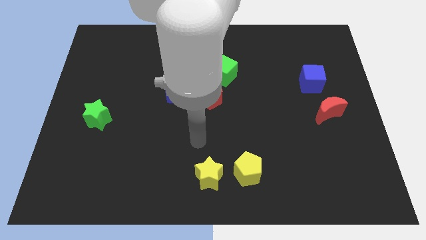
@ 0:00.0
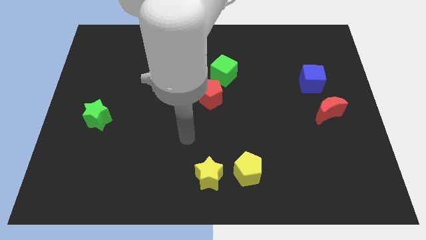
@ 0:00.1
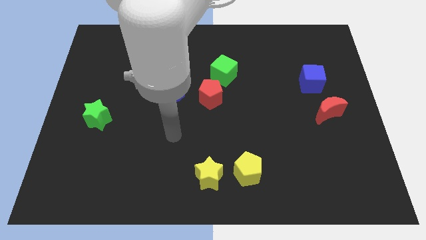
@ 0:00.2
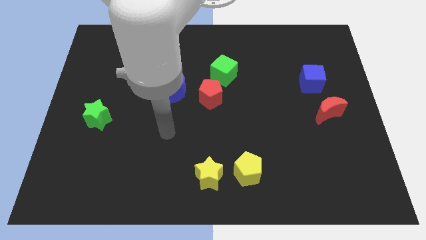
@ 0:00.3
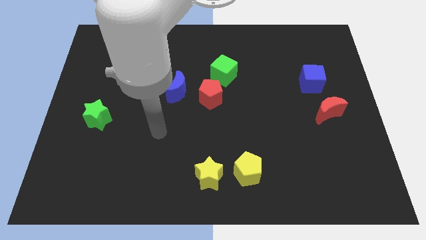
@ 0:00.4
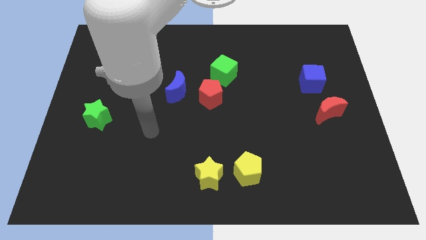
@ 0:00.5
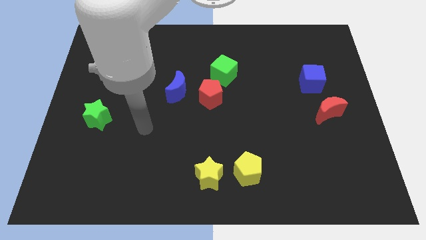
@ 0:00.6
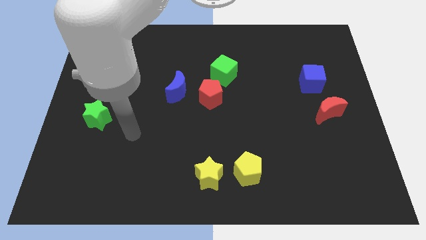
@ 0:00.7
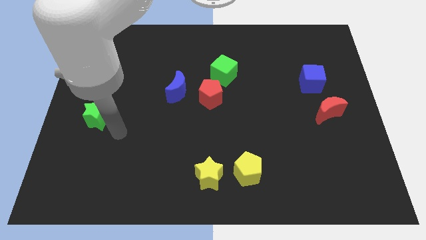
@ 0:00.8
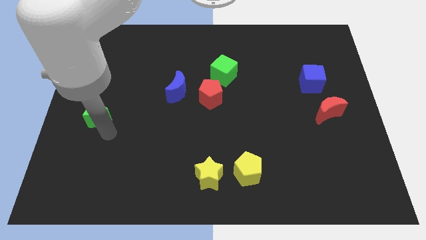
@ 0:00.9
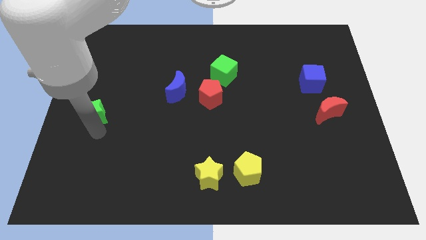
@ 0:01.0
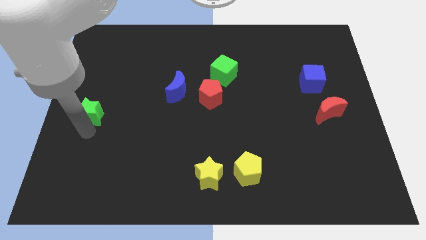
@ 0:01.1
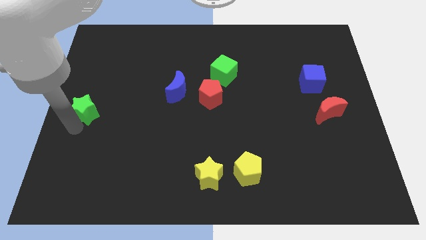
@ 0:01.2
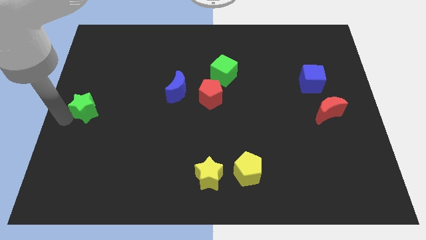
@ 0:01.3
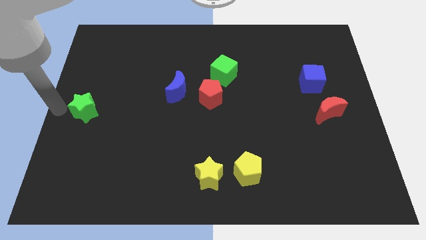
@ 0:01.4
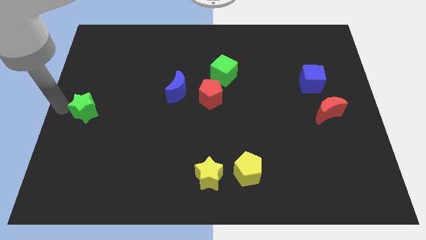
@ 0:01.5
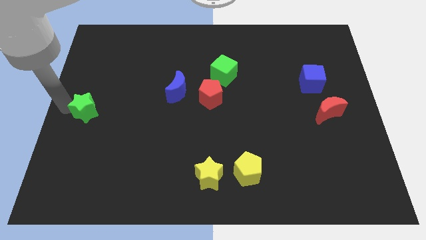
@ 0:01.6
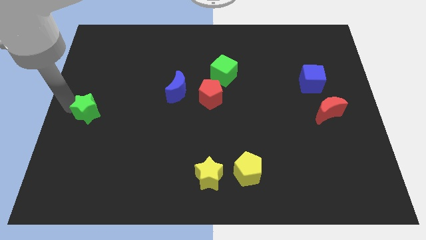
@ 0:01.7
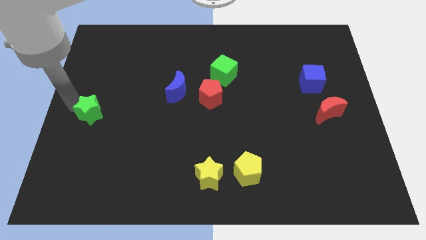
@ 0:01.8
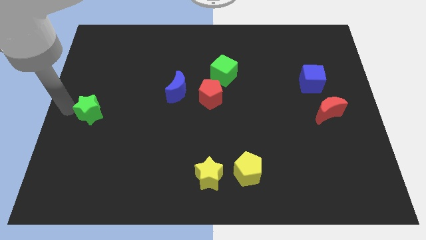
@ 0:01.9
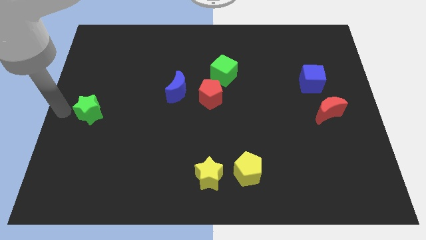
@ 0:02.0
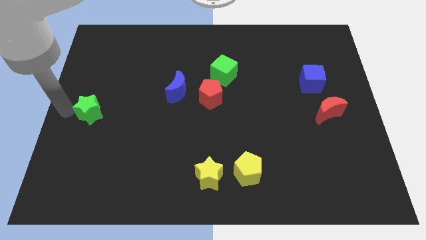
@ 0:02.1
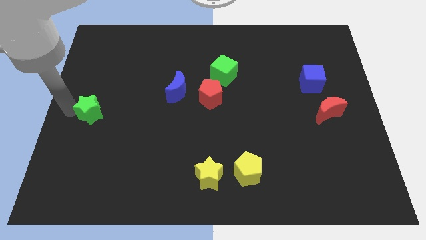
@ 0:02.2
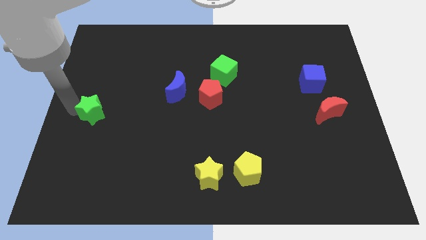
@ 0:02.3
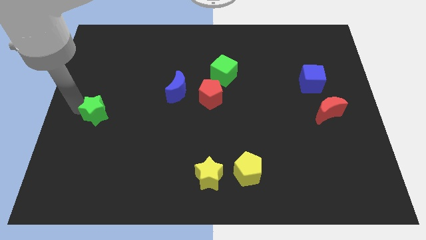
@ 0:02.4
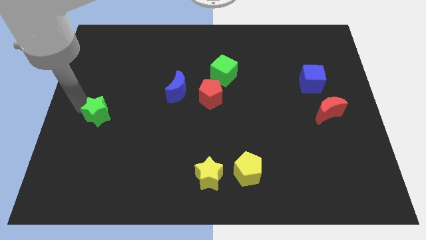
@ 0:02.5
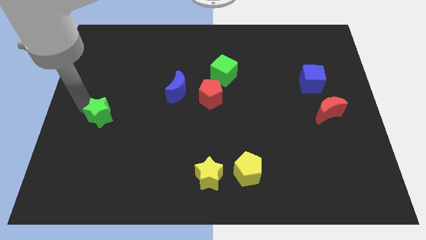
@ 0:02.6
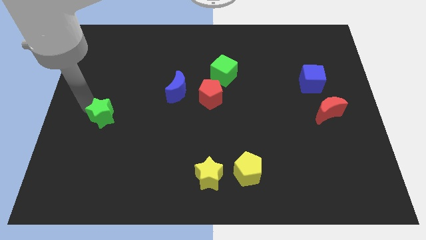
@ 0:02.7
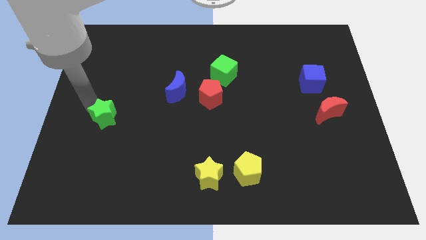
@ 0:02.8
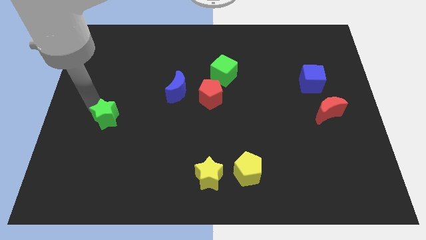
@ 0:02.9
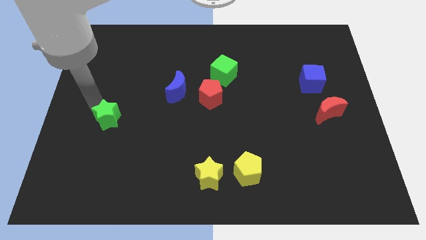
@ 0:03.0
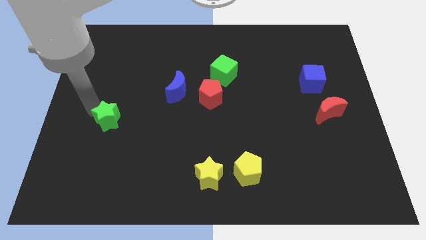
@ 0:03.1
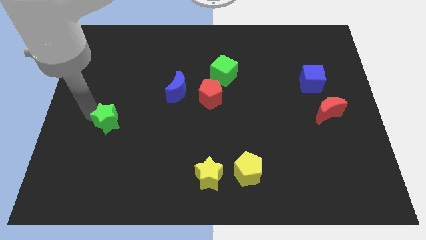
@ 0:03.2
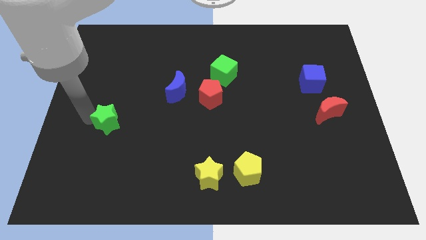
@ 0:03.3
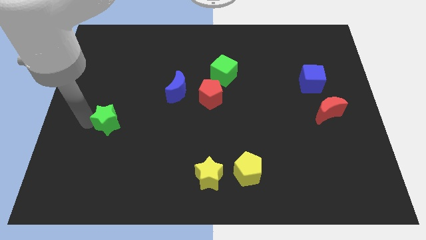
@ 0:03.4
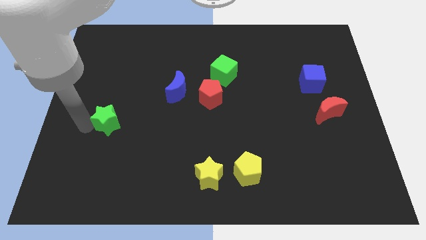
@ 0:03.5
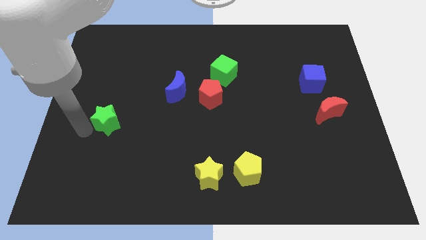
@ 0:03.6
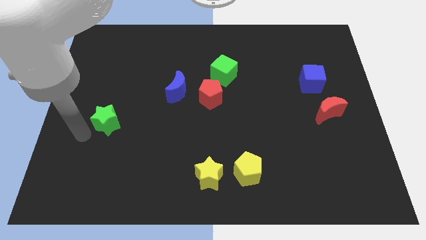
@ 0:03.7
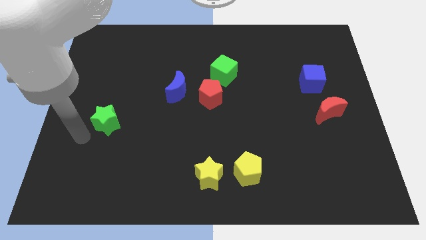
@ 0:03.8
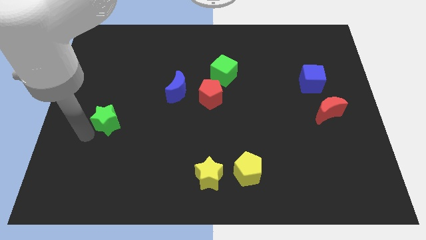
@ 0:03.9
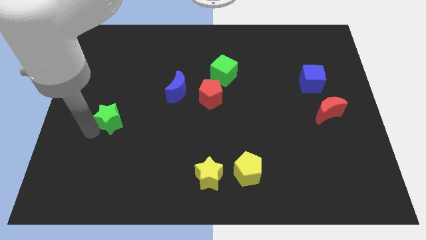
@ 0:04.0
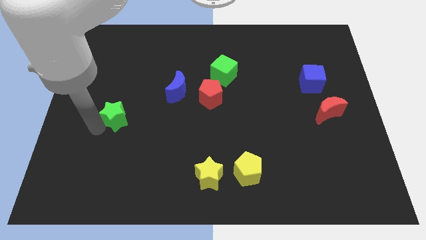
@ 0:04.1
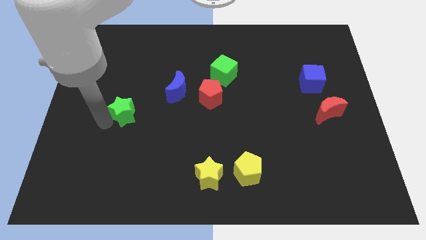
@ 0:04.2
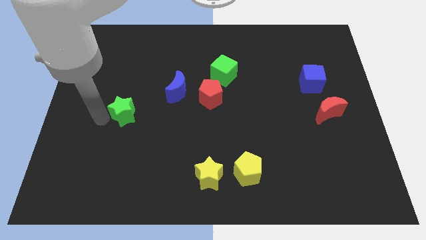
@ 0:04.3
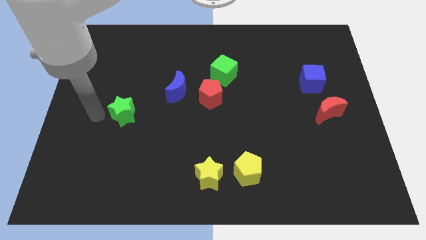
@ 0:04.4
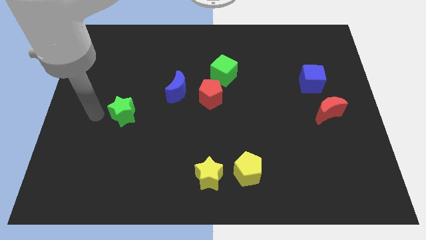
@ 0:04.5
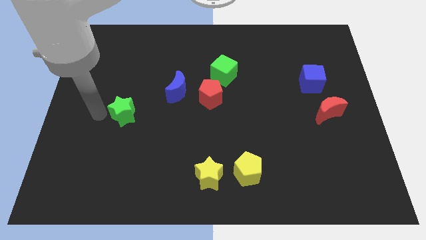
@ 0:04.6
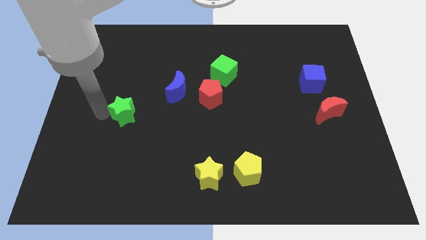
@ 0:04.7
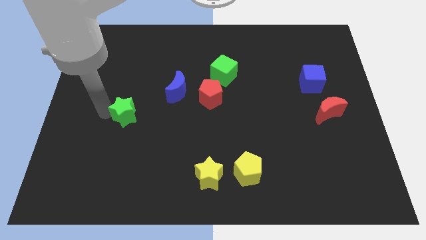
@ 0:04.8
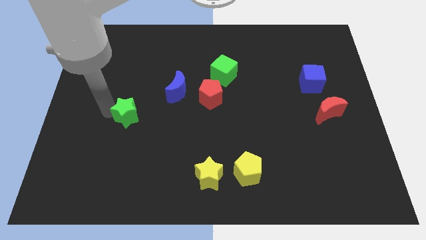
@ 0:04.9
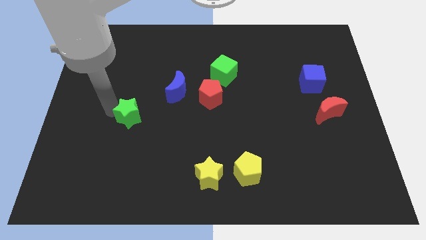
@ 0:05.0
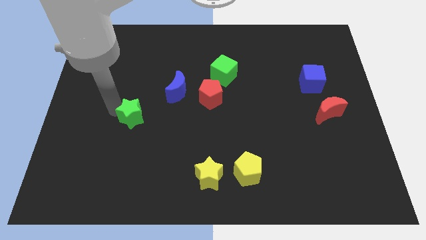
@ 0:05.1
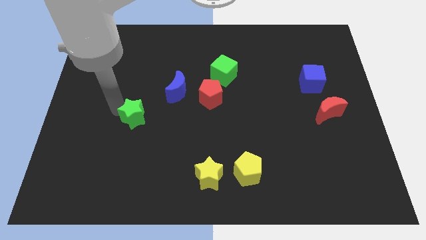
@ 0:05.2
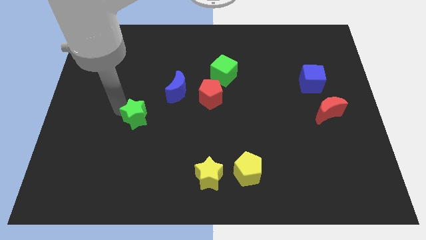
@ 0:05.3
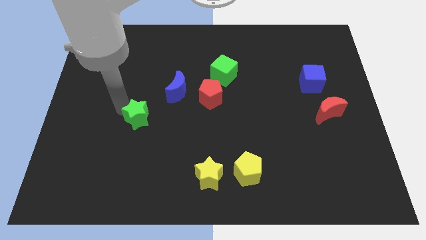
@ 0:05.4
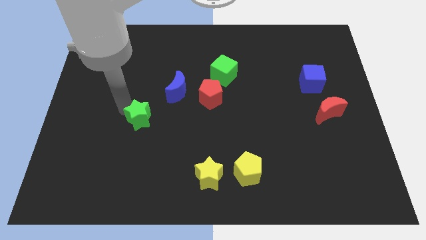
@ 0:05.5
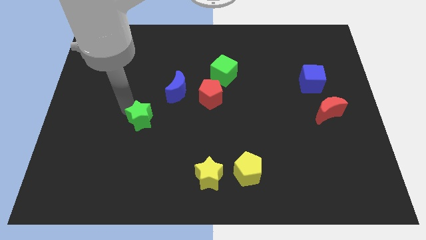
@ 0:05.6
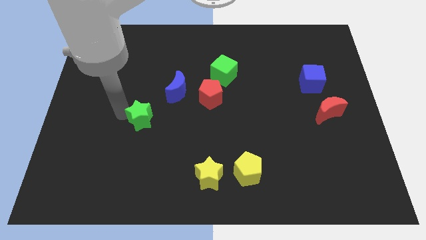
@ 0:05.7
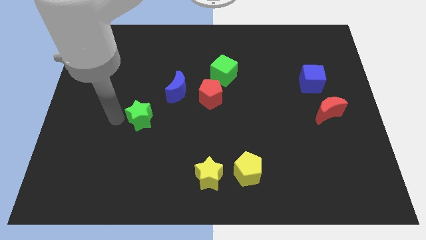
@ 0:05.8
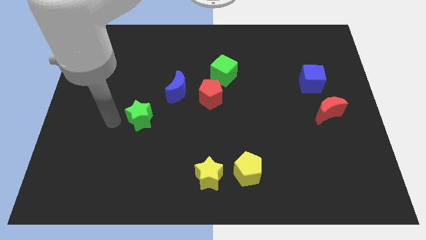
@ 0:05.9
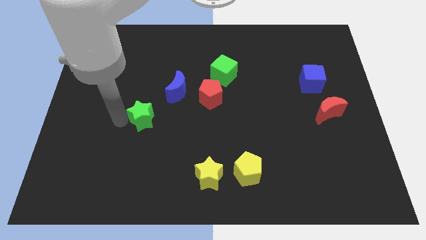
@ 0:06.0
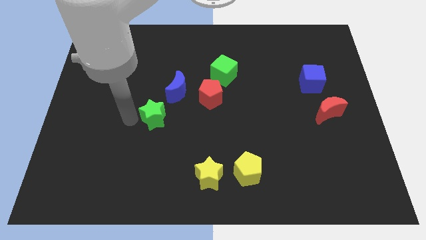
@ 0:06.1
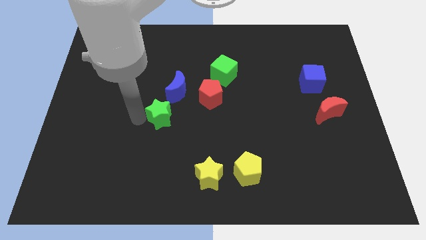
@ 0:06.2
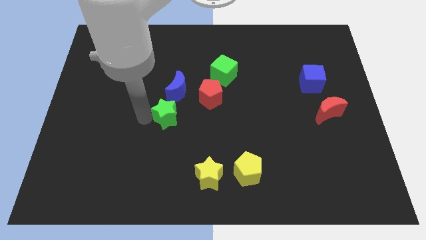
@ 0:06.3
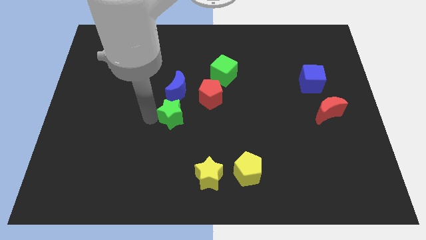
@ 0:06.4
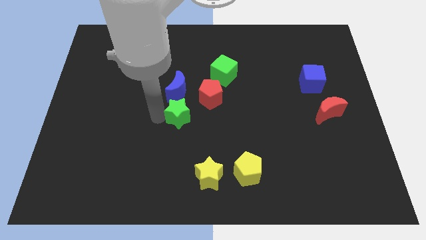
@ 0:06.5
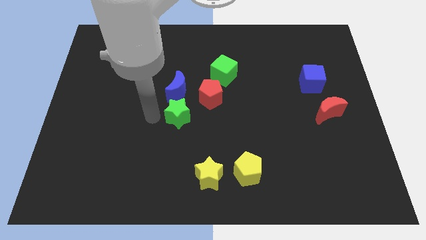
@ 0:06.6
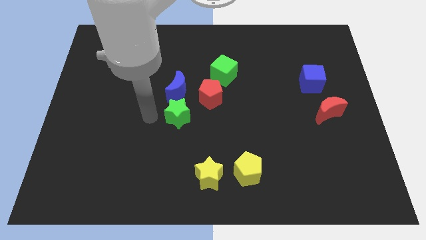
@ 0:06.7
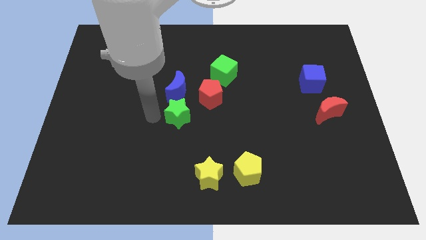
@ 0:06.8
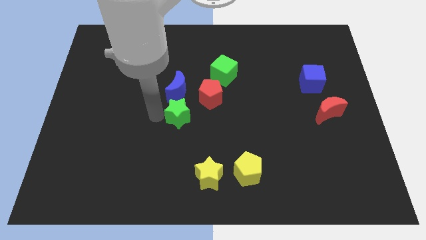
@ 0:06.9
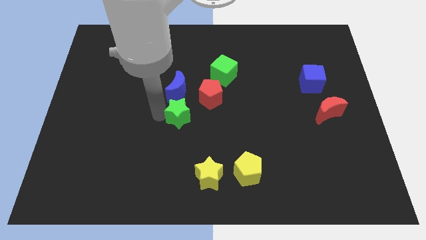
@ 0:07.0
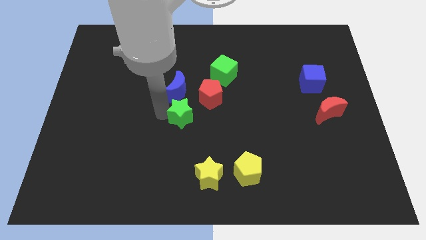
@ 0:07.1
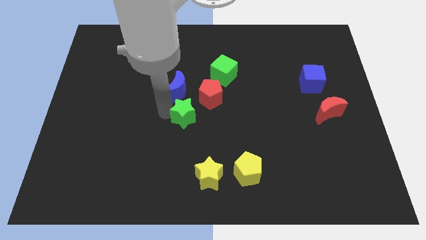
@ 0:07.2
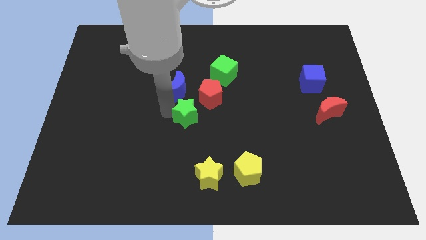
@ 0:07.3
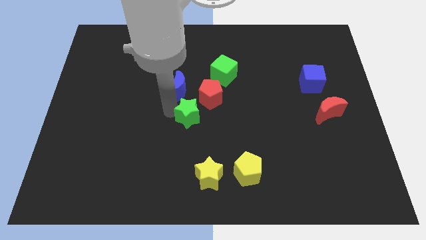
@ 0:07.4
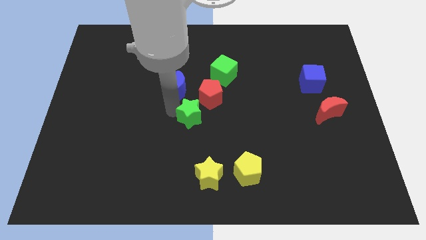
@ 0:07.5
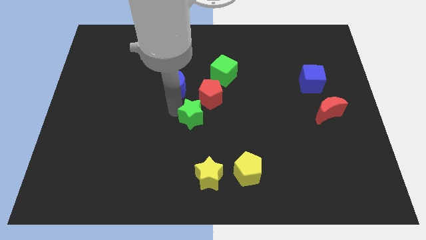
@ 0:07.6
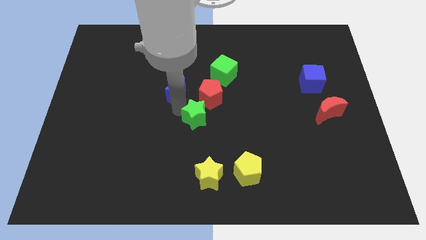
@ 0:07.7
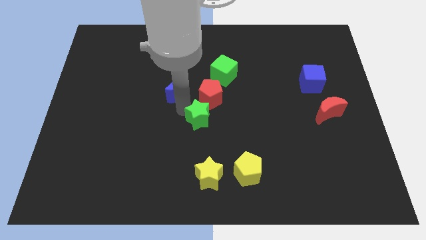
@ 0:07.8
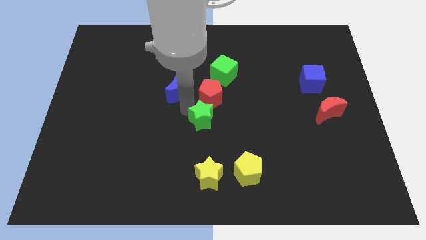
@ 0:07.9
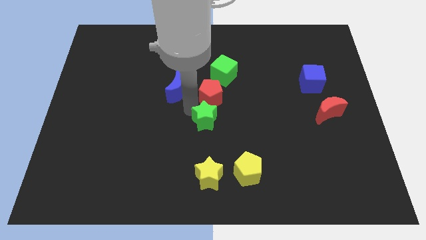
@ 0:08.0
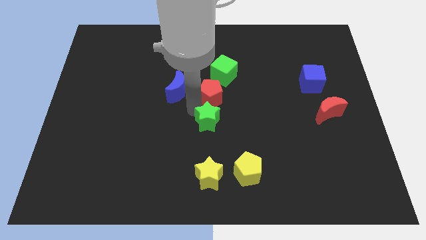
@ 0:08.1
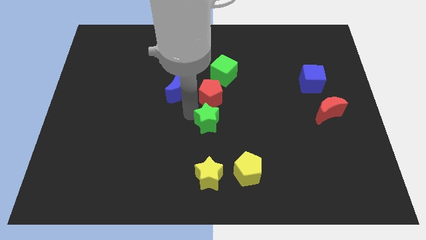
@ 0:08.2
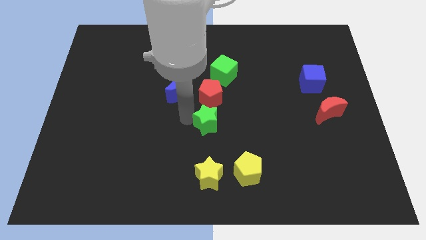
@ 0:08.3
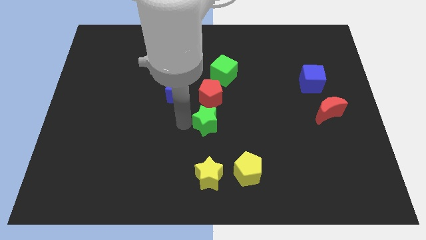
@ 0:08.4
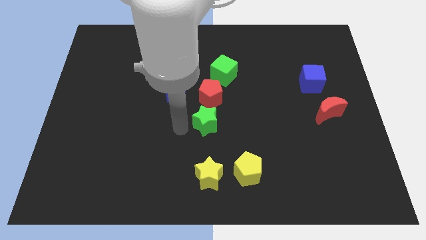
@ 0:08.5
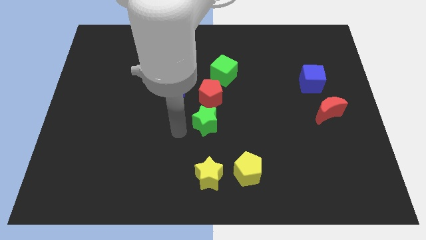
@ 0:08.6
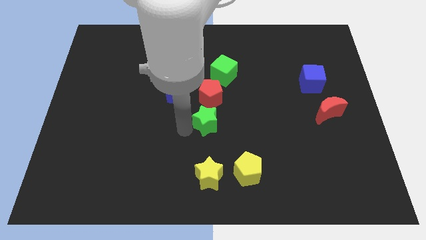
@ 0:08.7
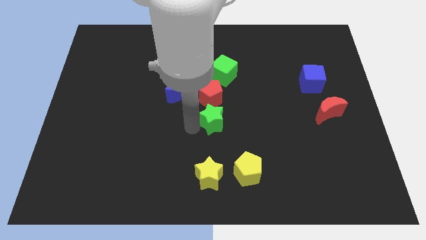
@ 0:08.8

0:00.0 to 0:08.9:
move the green star to the bottom right side of the red pentagon
